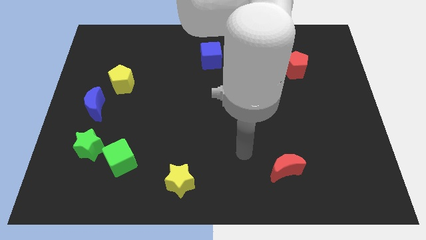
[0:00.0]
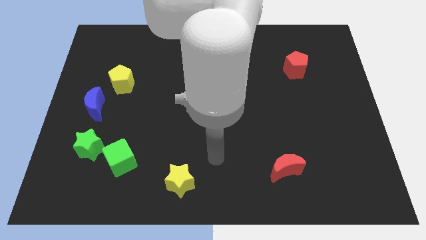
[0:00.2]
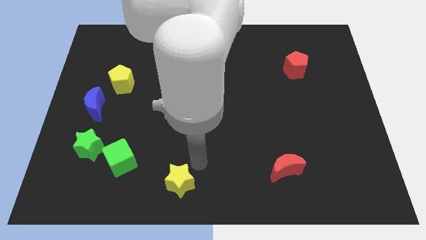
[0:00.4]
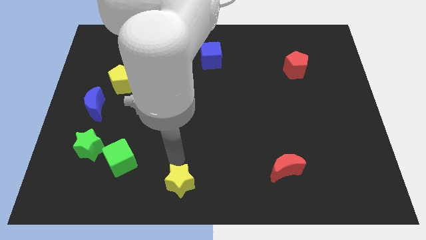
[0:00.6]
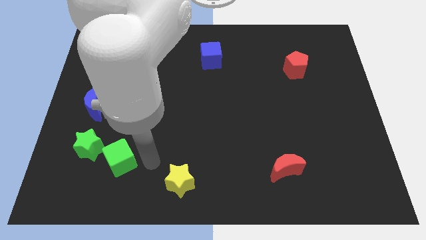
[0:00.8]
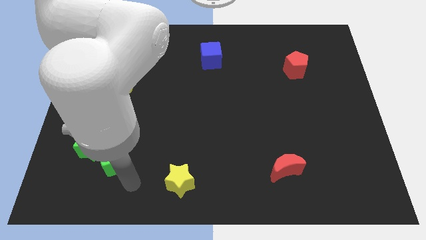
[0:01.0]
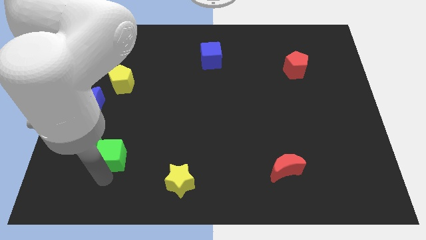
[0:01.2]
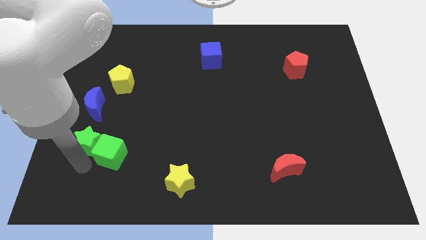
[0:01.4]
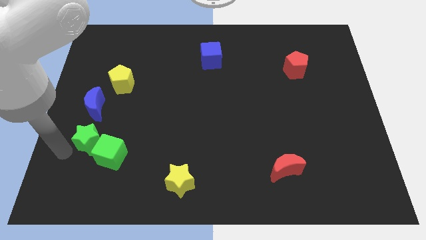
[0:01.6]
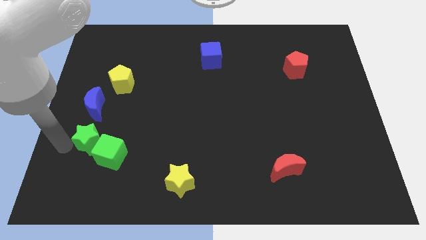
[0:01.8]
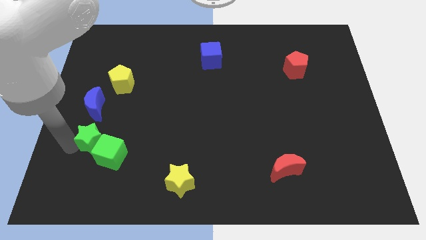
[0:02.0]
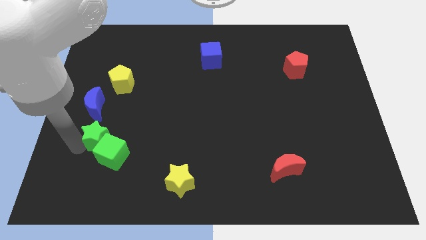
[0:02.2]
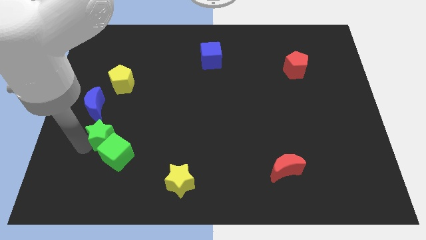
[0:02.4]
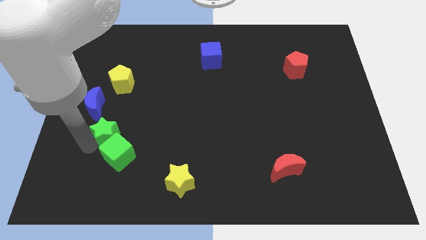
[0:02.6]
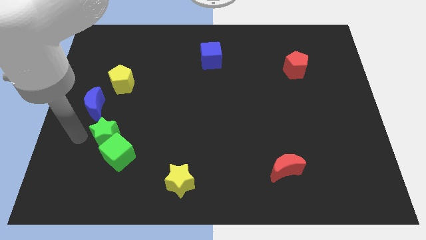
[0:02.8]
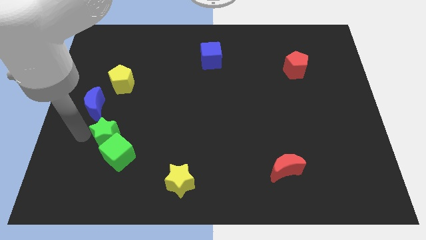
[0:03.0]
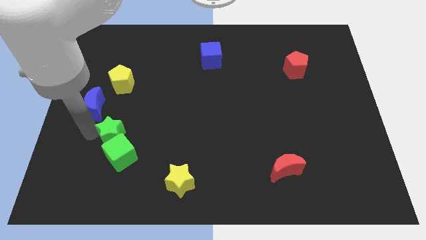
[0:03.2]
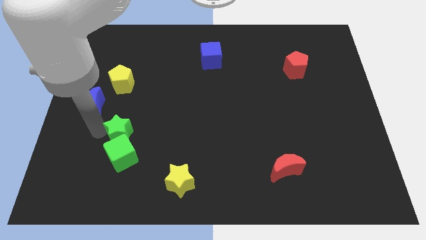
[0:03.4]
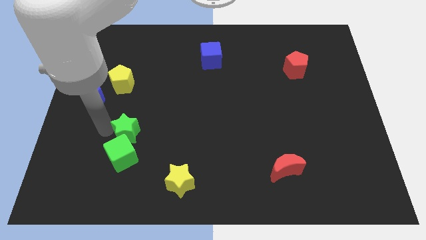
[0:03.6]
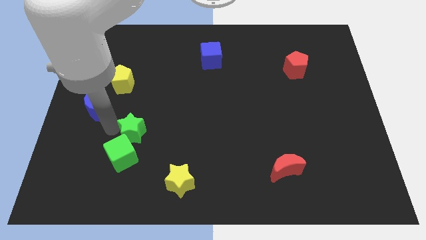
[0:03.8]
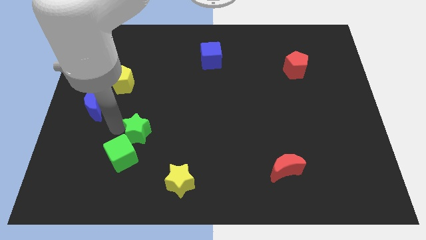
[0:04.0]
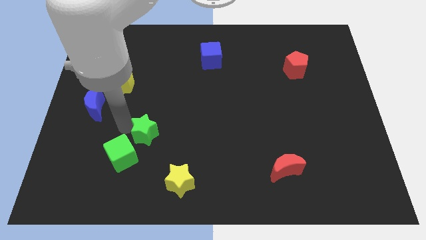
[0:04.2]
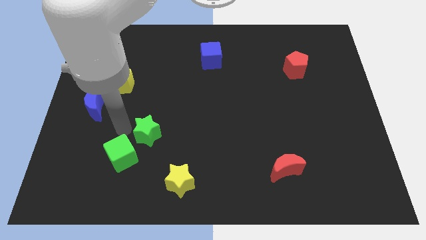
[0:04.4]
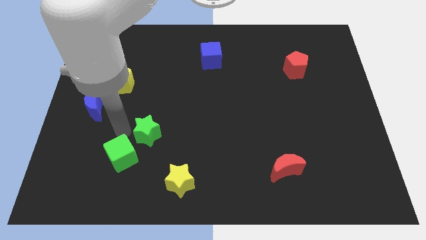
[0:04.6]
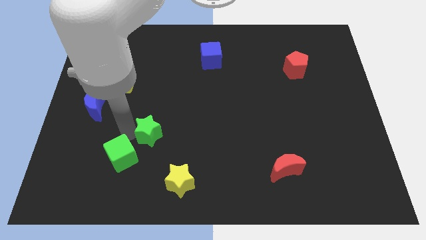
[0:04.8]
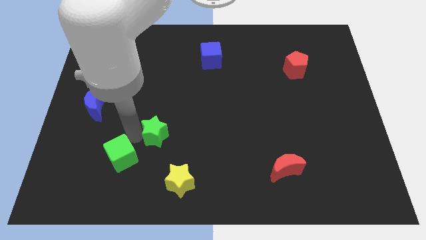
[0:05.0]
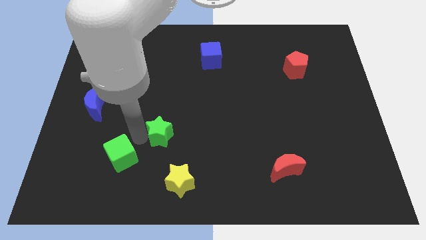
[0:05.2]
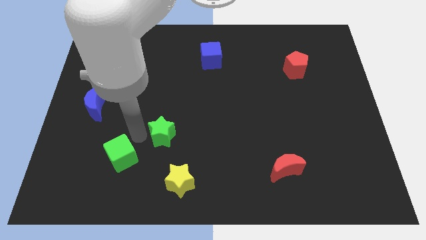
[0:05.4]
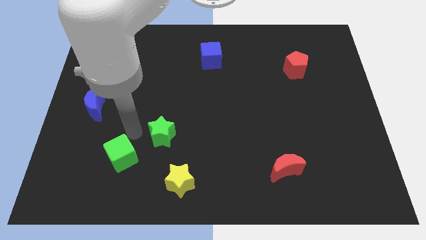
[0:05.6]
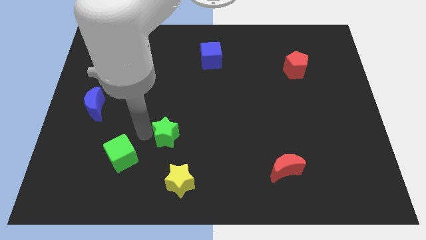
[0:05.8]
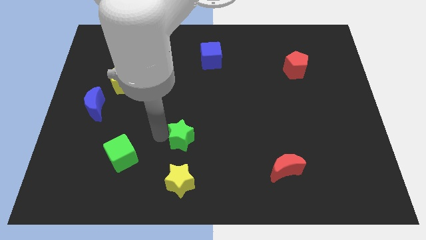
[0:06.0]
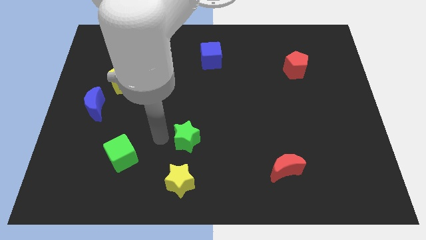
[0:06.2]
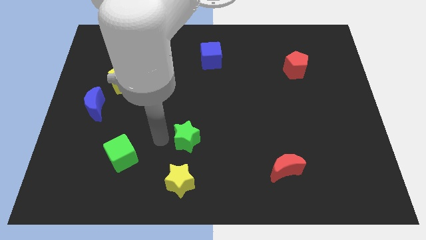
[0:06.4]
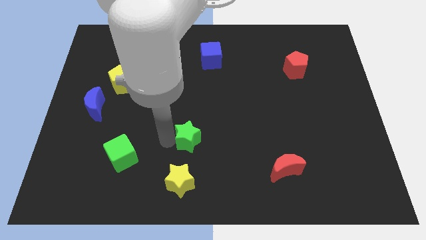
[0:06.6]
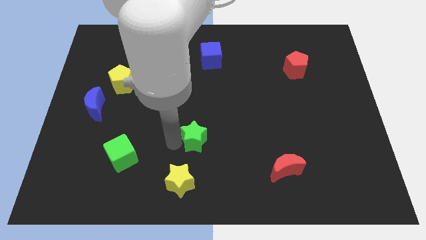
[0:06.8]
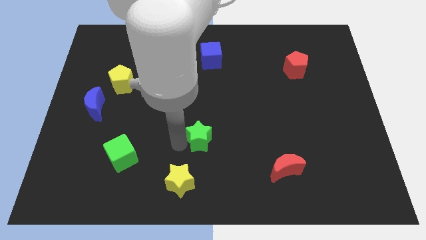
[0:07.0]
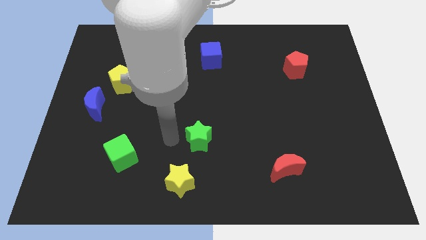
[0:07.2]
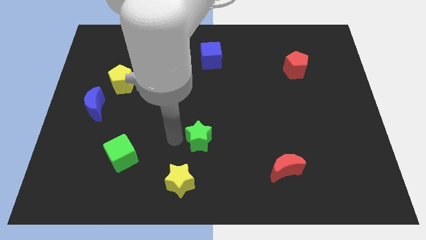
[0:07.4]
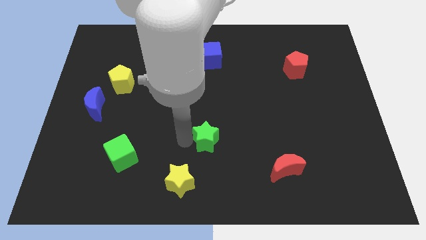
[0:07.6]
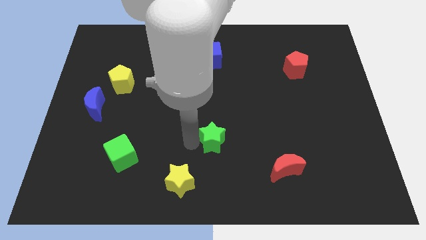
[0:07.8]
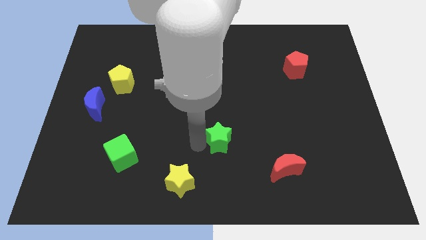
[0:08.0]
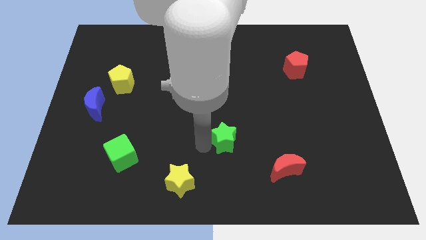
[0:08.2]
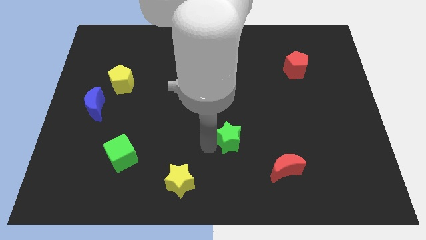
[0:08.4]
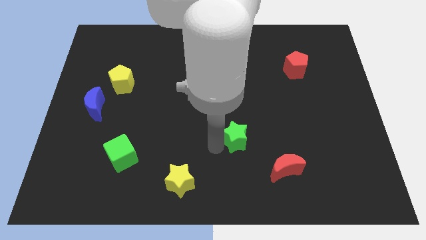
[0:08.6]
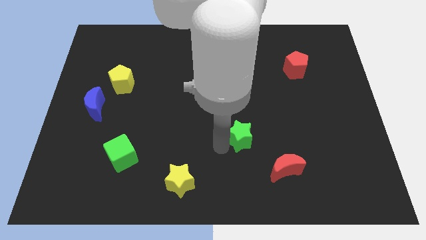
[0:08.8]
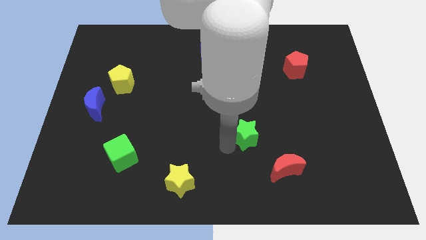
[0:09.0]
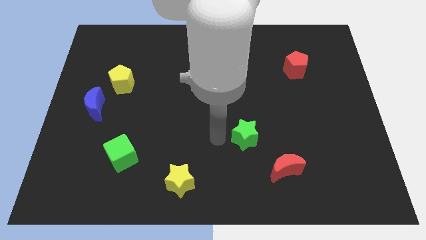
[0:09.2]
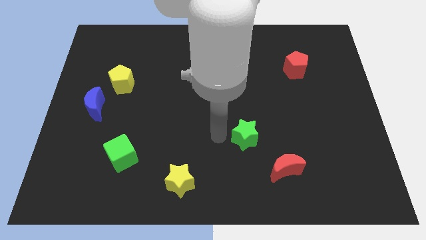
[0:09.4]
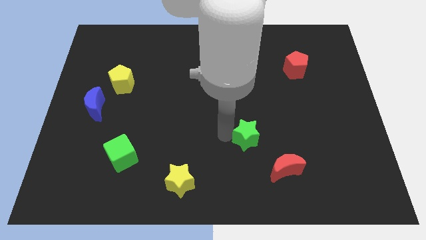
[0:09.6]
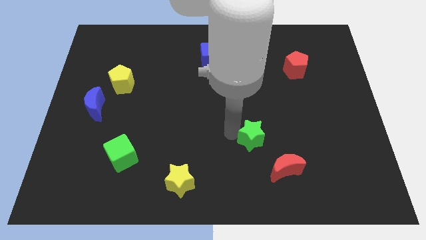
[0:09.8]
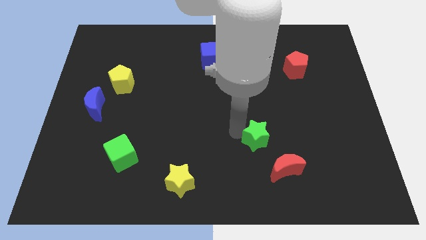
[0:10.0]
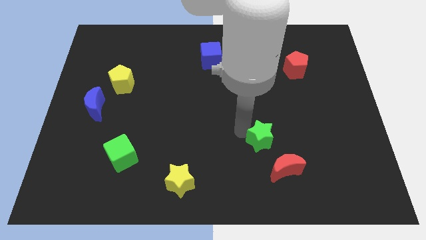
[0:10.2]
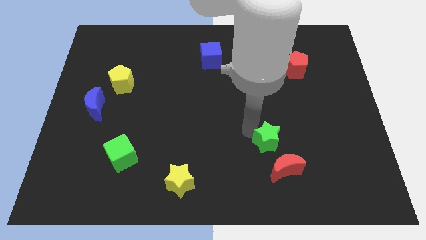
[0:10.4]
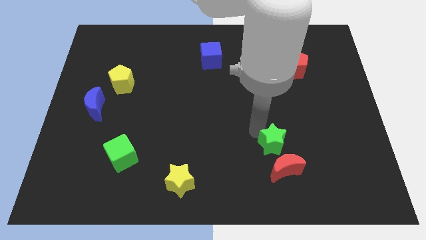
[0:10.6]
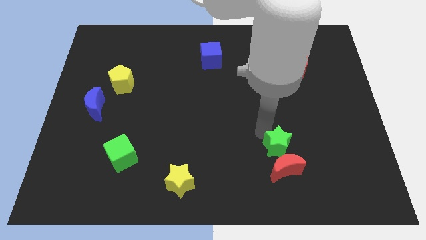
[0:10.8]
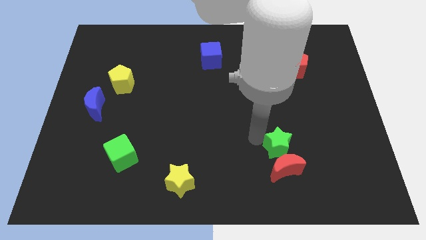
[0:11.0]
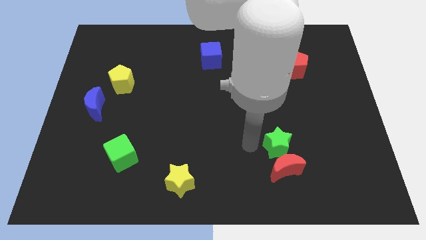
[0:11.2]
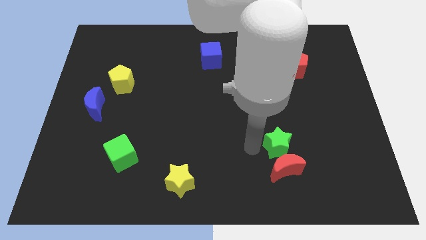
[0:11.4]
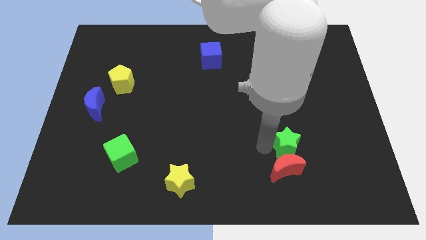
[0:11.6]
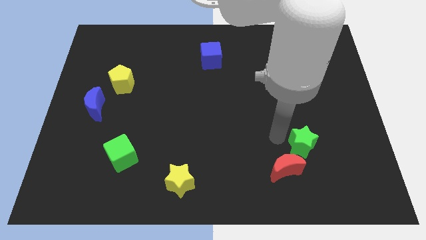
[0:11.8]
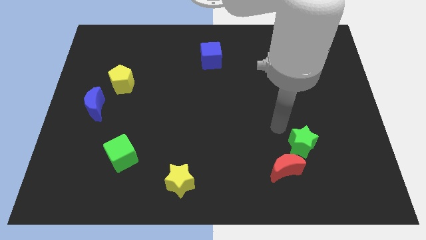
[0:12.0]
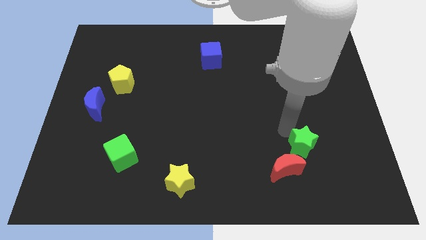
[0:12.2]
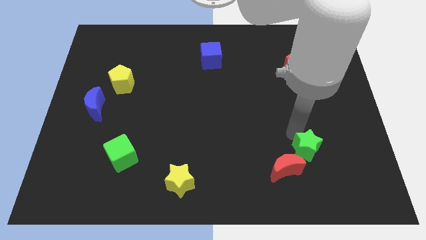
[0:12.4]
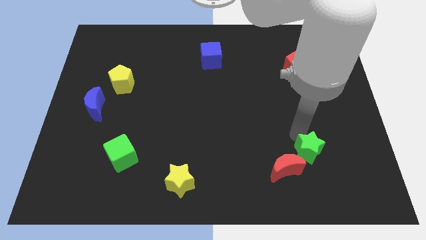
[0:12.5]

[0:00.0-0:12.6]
slide the green star to the right side of the red moon

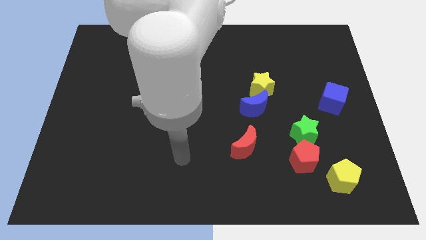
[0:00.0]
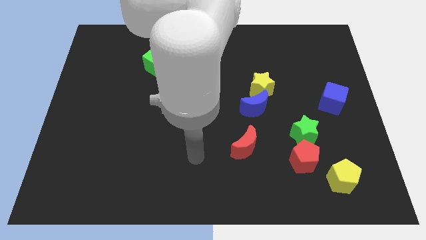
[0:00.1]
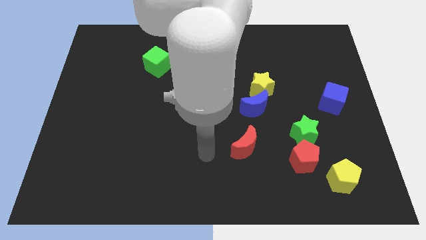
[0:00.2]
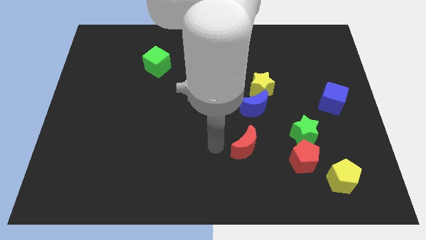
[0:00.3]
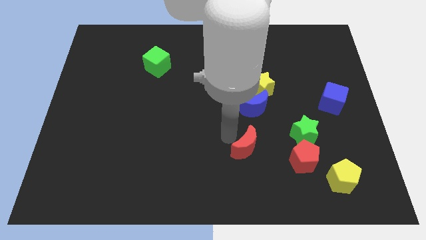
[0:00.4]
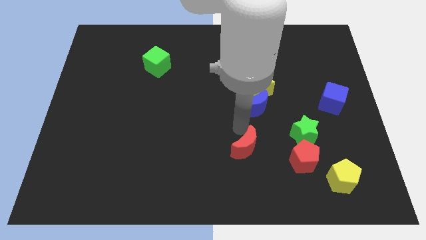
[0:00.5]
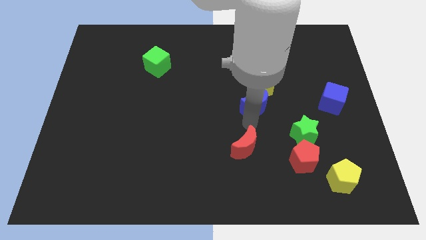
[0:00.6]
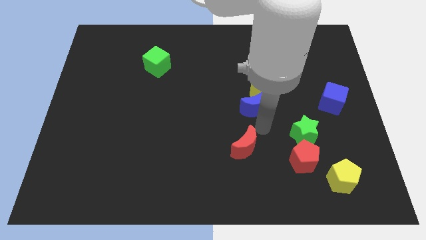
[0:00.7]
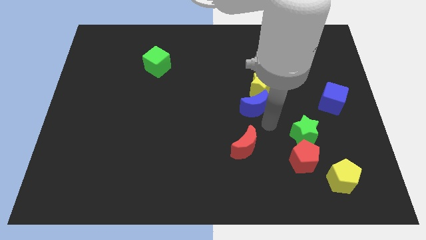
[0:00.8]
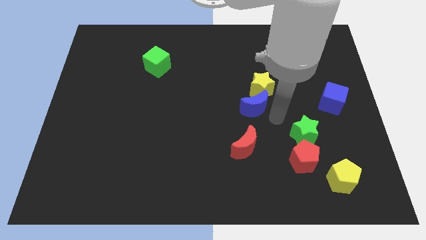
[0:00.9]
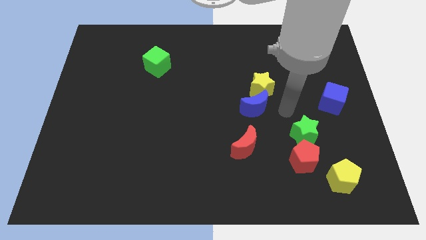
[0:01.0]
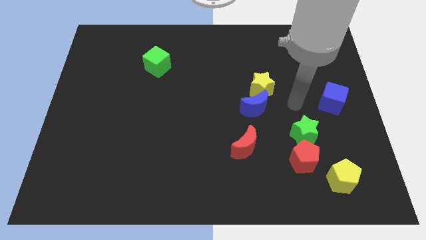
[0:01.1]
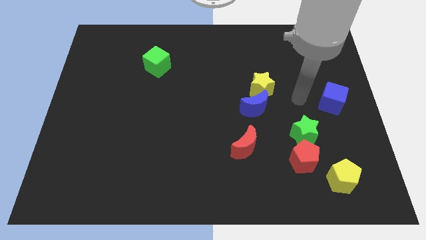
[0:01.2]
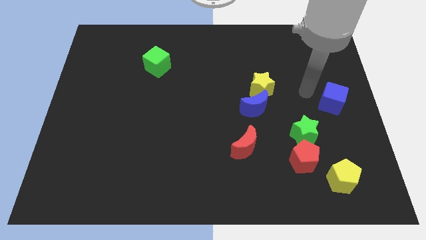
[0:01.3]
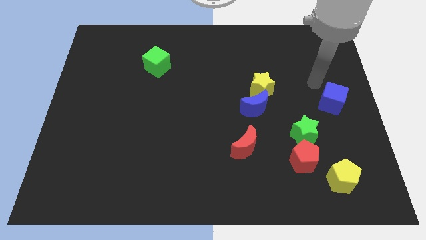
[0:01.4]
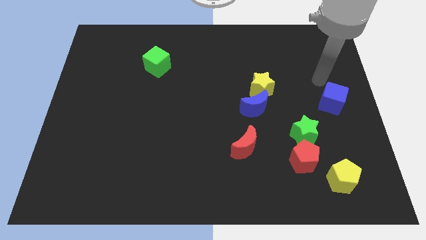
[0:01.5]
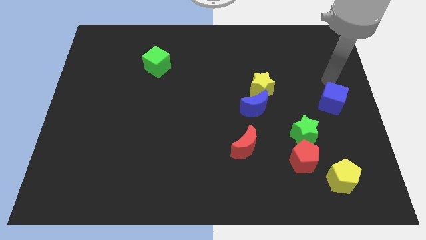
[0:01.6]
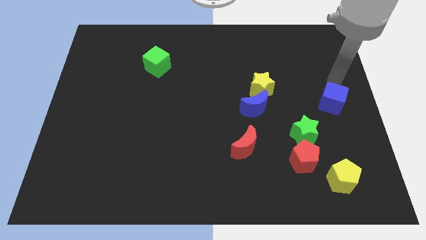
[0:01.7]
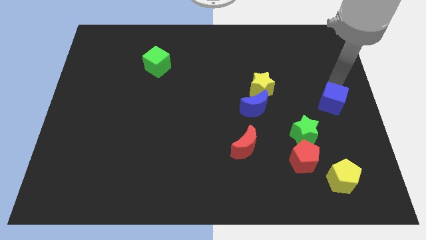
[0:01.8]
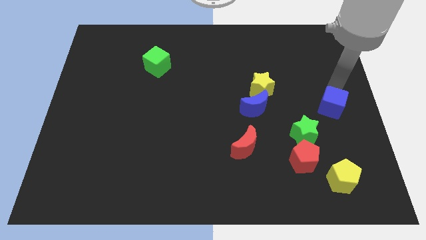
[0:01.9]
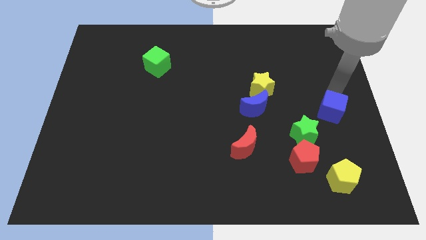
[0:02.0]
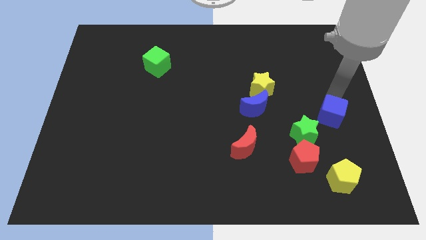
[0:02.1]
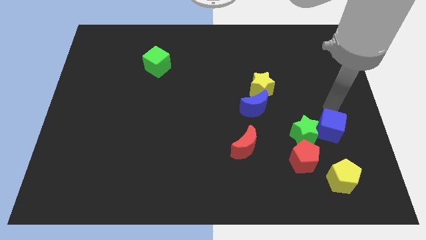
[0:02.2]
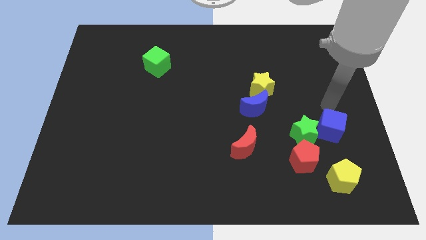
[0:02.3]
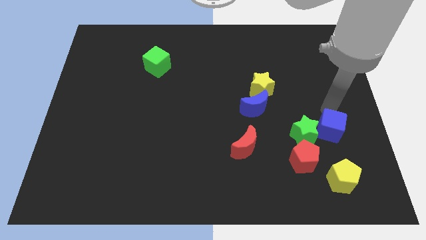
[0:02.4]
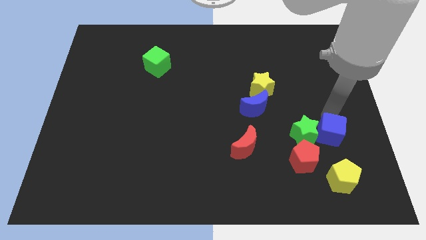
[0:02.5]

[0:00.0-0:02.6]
push the blue cube diagonally down and to the right of the green star
